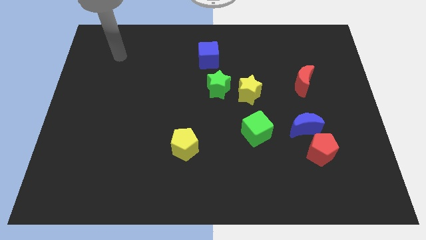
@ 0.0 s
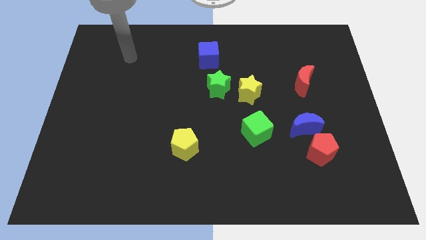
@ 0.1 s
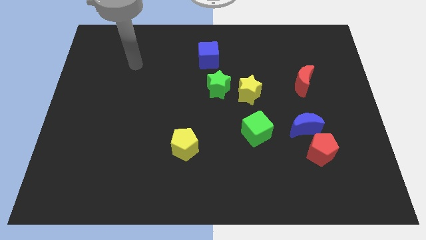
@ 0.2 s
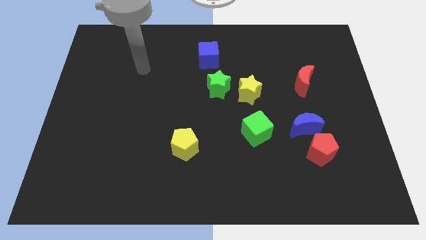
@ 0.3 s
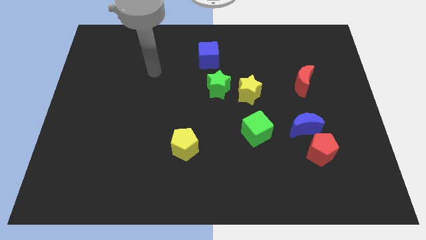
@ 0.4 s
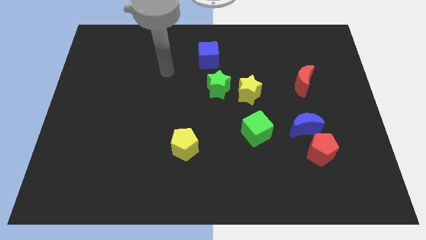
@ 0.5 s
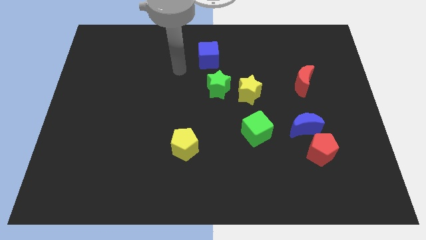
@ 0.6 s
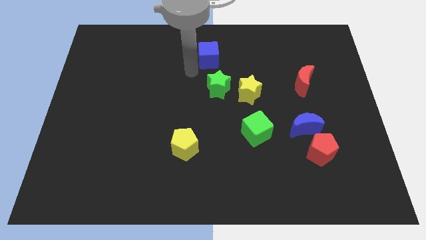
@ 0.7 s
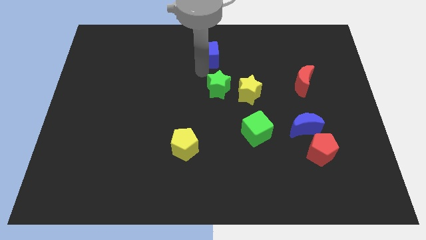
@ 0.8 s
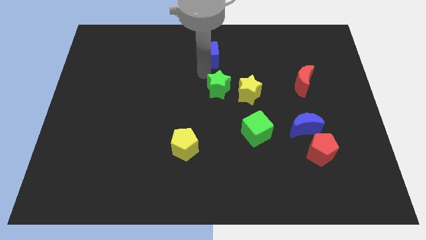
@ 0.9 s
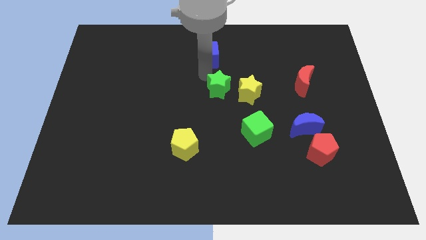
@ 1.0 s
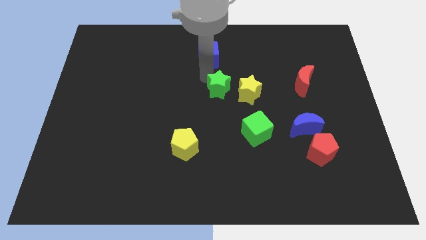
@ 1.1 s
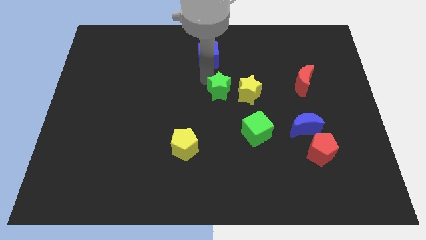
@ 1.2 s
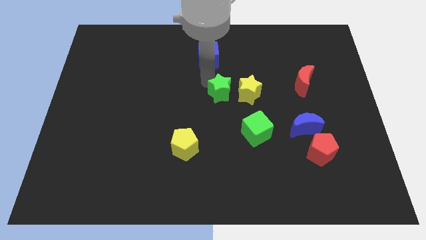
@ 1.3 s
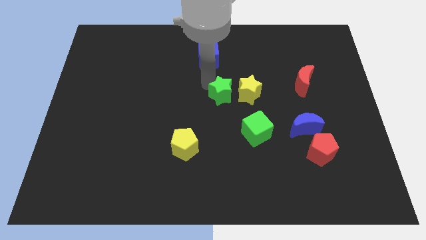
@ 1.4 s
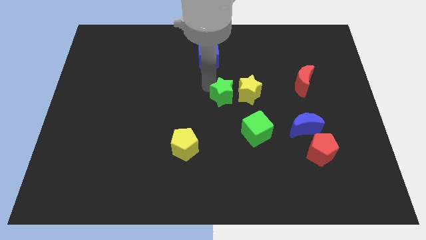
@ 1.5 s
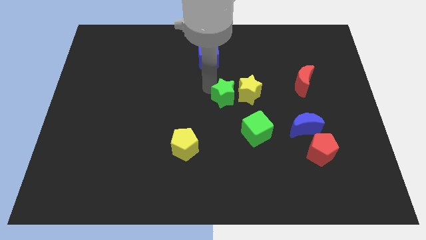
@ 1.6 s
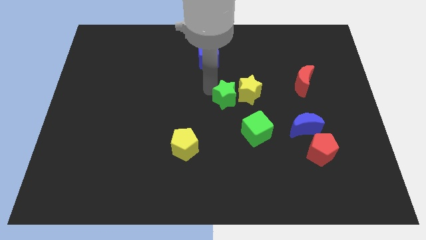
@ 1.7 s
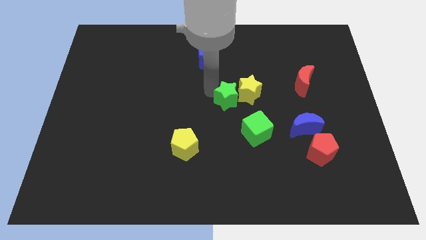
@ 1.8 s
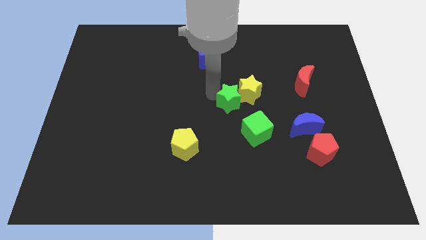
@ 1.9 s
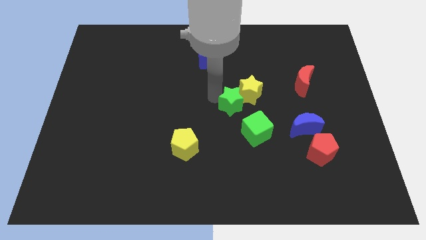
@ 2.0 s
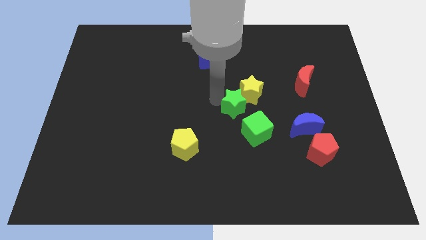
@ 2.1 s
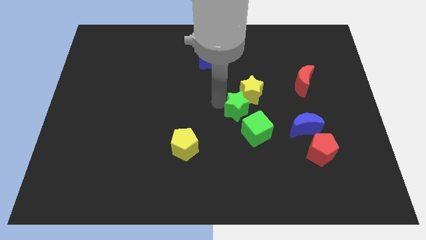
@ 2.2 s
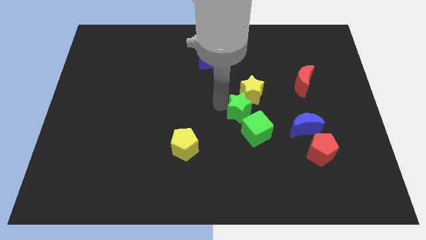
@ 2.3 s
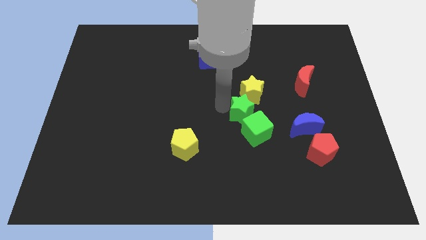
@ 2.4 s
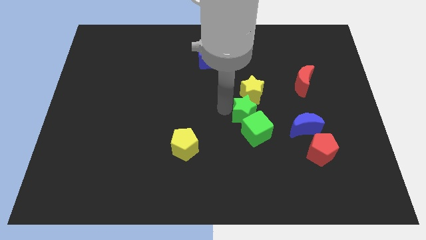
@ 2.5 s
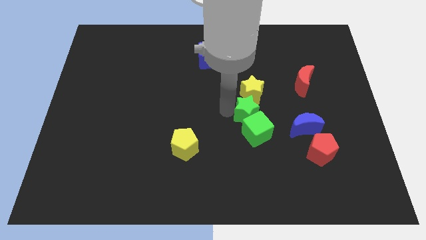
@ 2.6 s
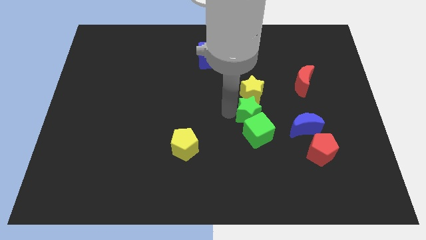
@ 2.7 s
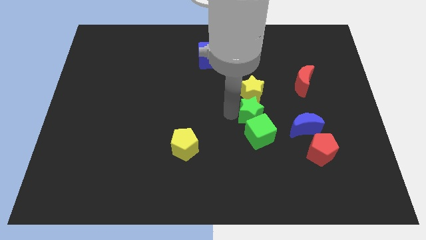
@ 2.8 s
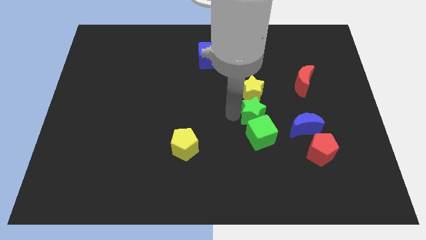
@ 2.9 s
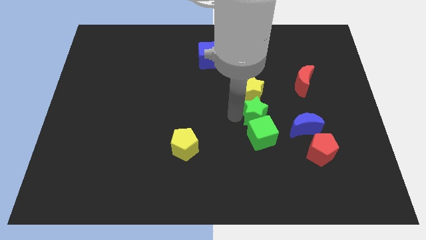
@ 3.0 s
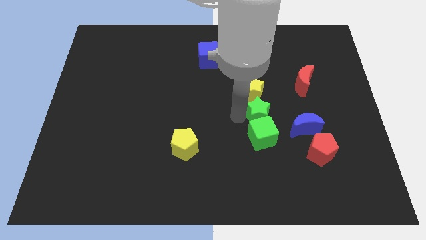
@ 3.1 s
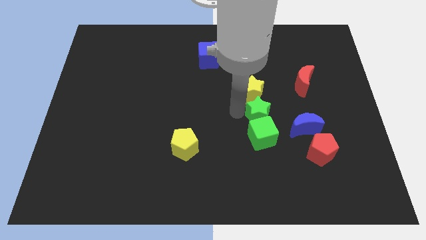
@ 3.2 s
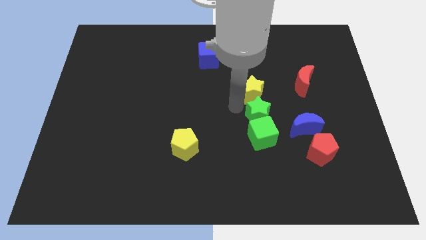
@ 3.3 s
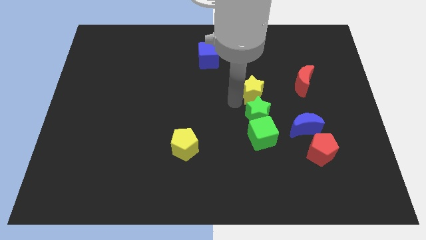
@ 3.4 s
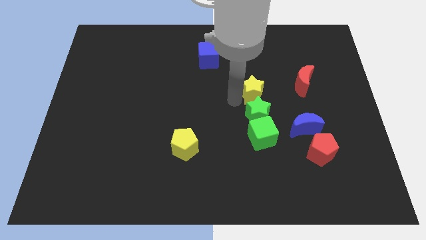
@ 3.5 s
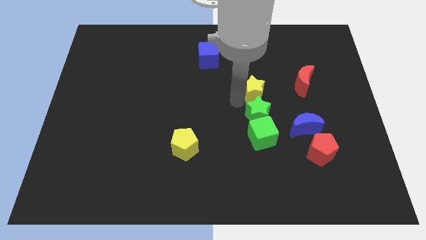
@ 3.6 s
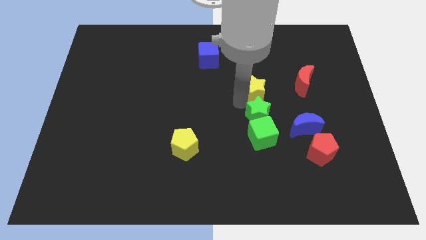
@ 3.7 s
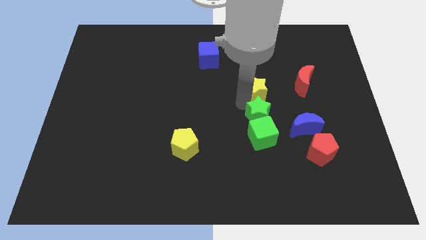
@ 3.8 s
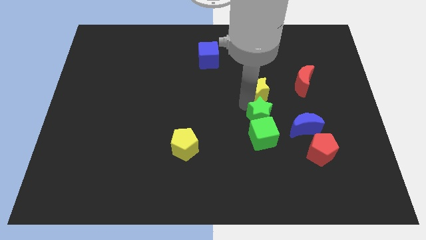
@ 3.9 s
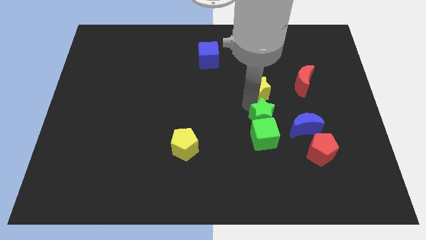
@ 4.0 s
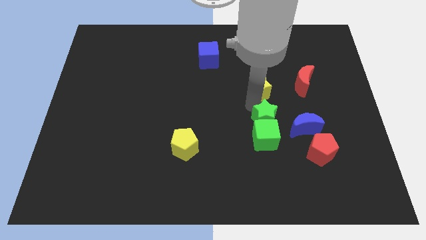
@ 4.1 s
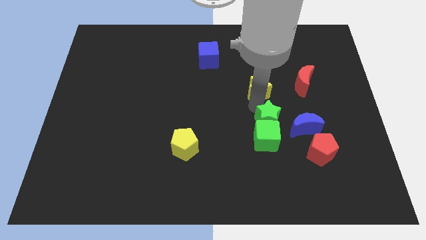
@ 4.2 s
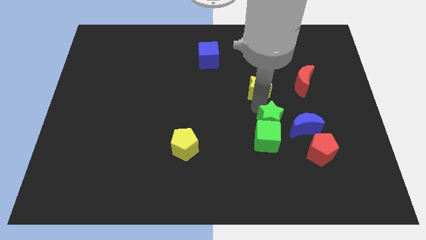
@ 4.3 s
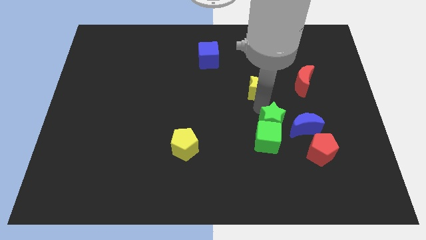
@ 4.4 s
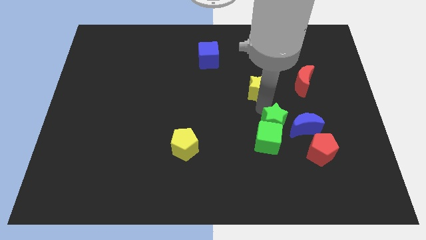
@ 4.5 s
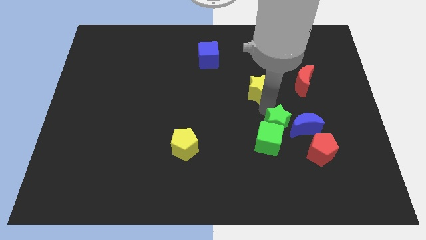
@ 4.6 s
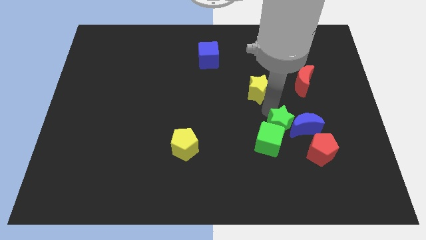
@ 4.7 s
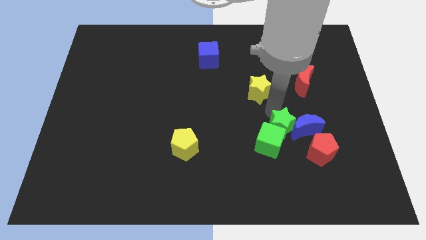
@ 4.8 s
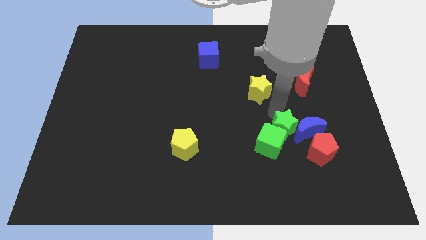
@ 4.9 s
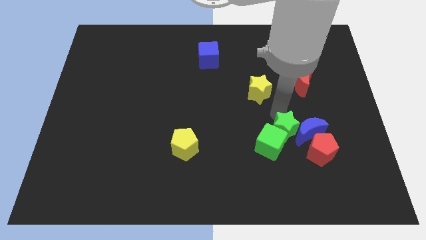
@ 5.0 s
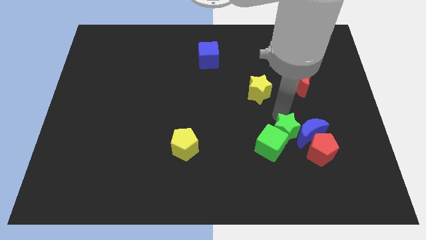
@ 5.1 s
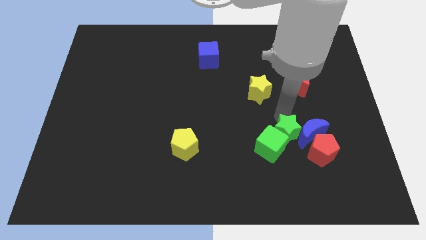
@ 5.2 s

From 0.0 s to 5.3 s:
push the green star down and right diagonally

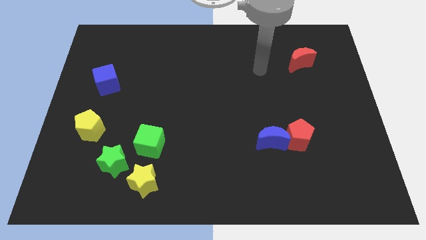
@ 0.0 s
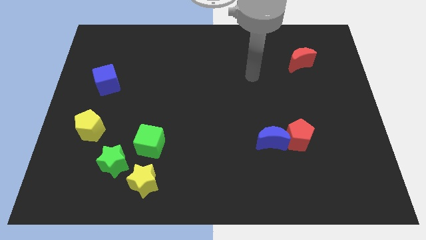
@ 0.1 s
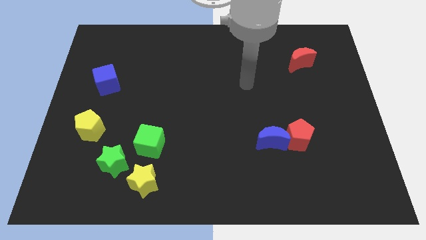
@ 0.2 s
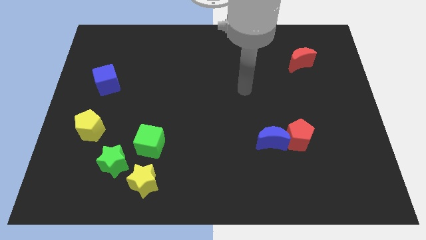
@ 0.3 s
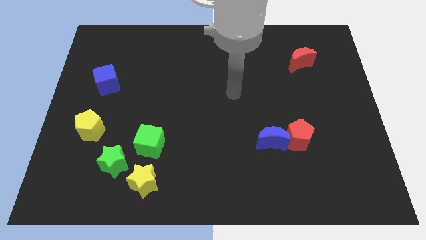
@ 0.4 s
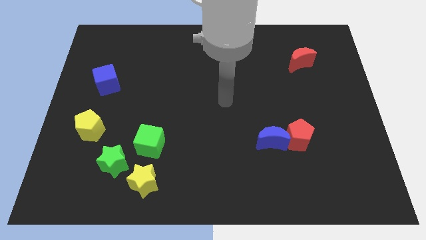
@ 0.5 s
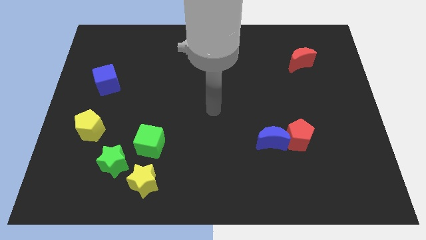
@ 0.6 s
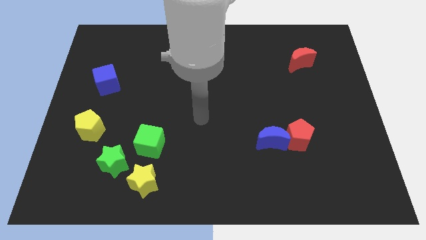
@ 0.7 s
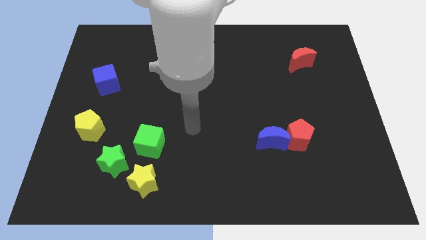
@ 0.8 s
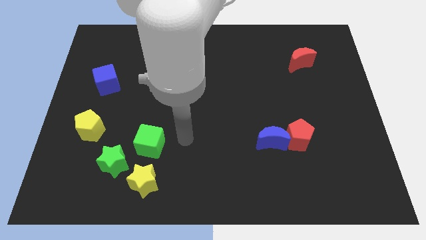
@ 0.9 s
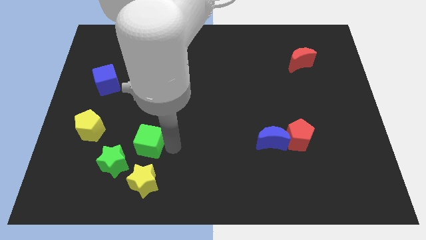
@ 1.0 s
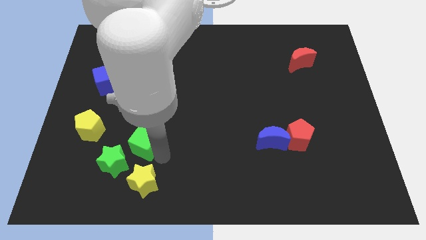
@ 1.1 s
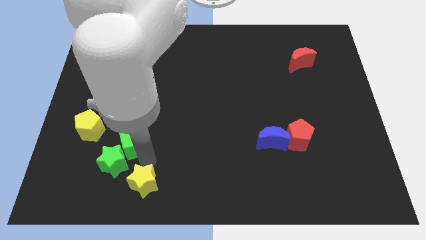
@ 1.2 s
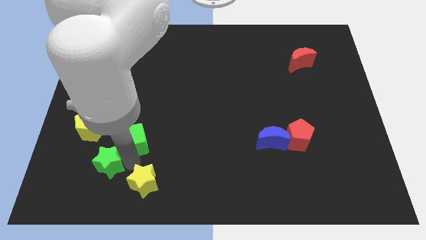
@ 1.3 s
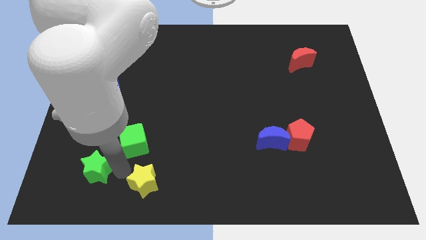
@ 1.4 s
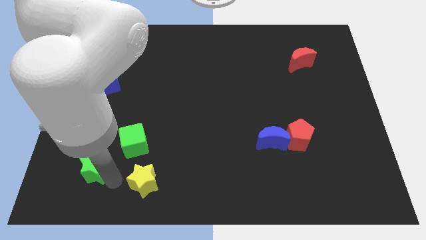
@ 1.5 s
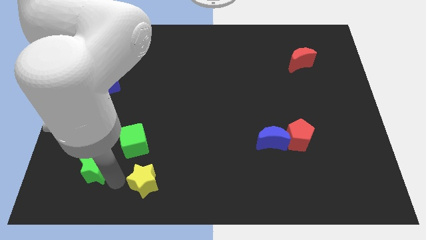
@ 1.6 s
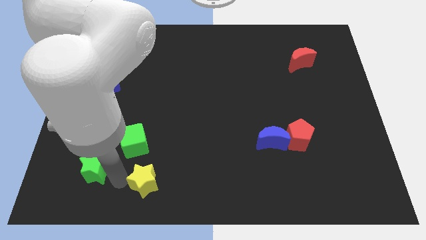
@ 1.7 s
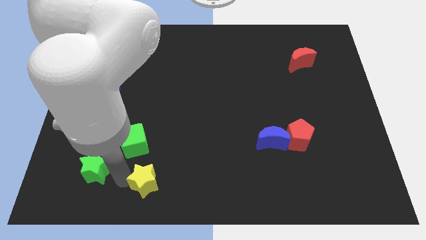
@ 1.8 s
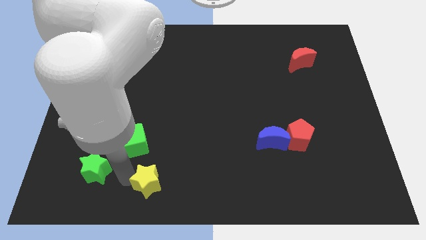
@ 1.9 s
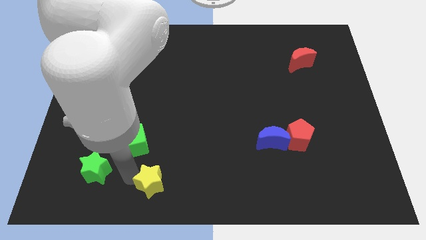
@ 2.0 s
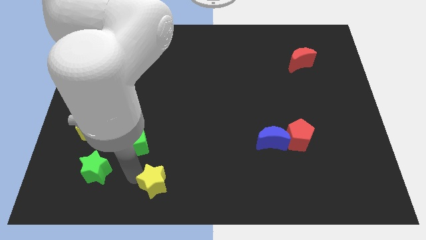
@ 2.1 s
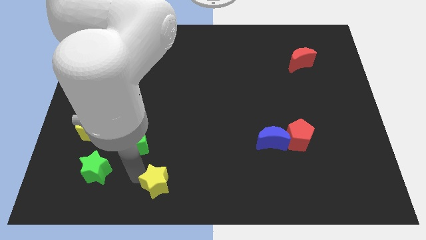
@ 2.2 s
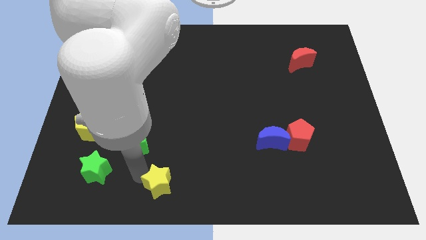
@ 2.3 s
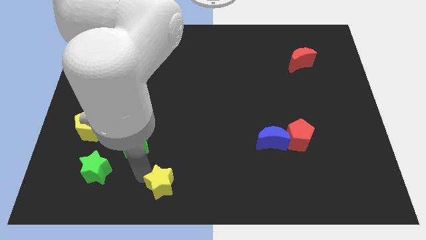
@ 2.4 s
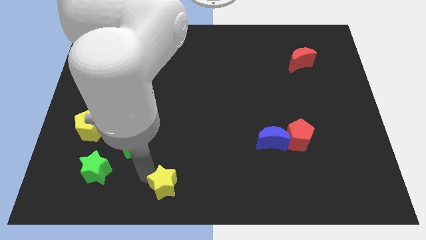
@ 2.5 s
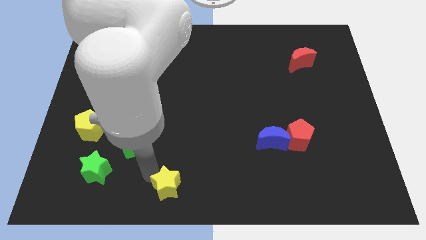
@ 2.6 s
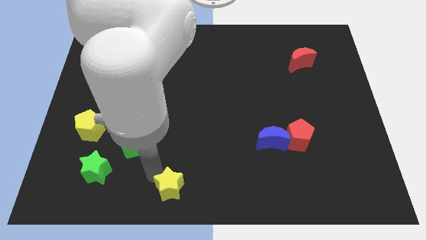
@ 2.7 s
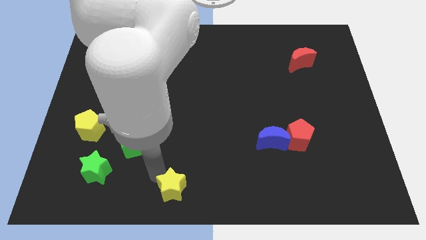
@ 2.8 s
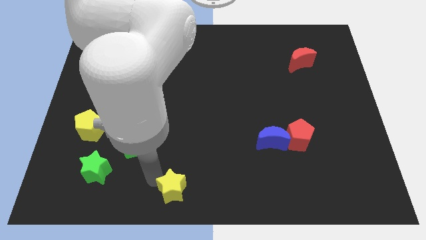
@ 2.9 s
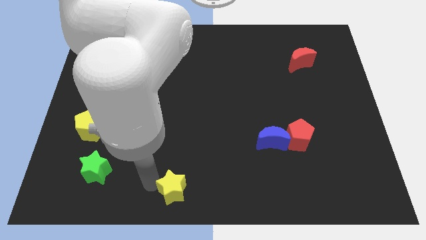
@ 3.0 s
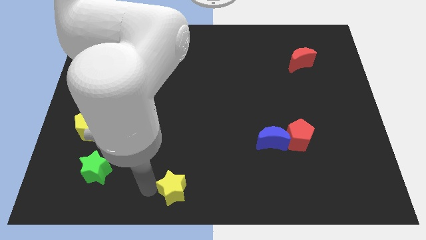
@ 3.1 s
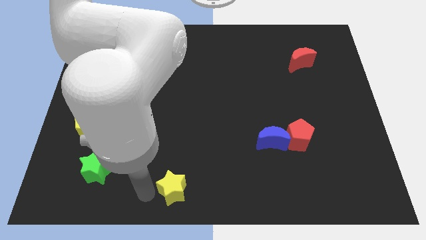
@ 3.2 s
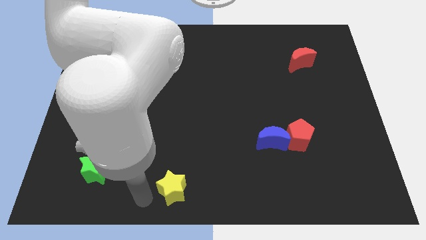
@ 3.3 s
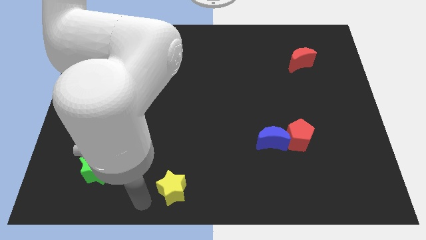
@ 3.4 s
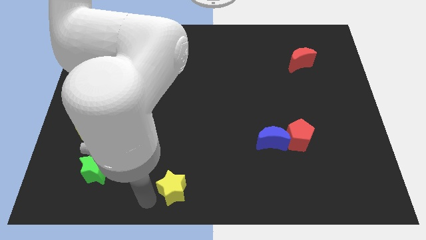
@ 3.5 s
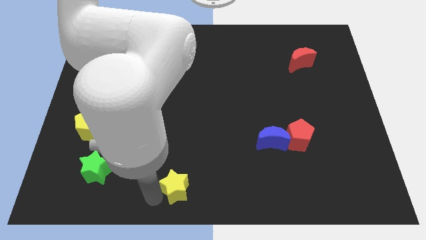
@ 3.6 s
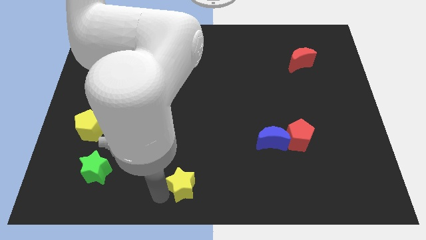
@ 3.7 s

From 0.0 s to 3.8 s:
slightly push the yellow star to the right
